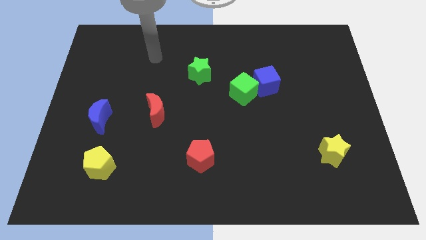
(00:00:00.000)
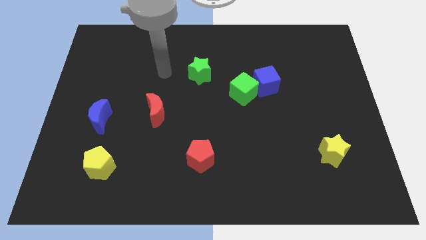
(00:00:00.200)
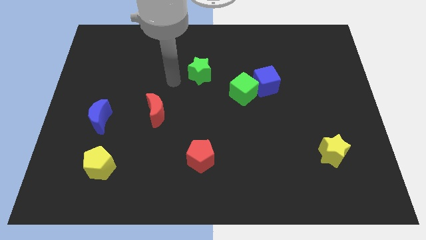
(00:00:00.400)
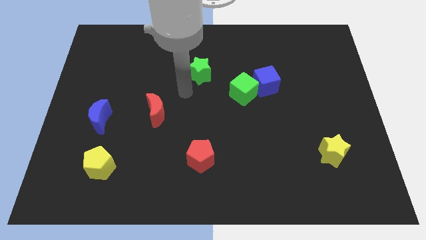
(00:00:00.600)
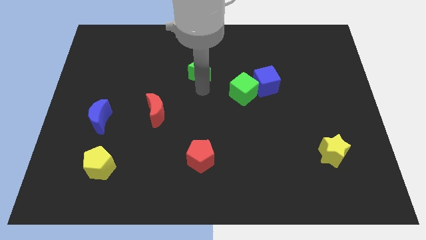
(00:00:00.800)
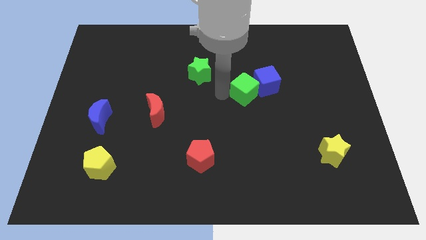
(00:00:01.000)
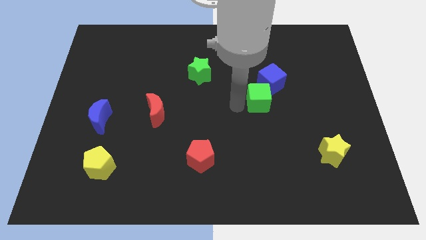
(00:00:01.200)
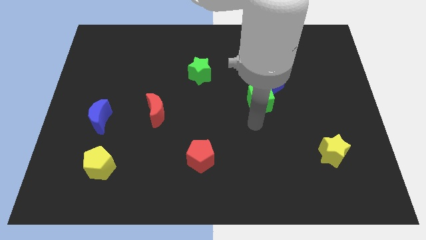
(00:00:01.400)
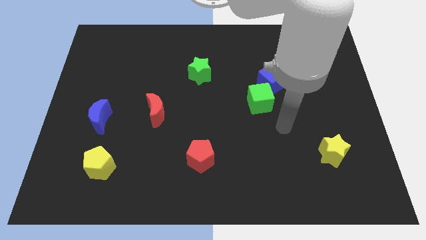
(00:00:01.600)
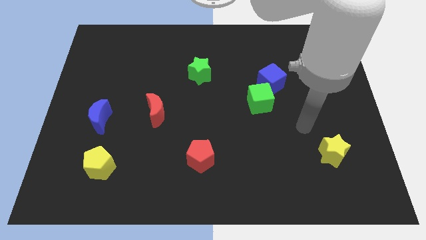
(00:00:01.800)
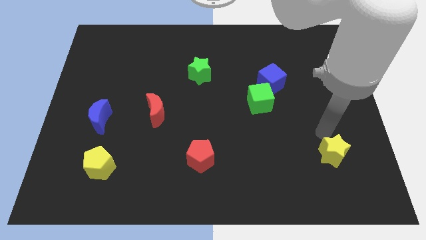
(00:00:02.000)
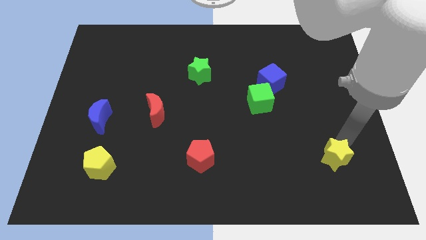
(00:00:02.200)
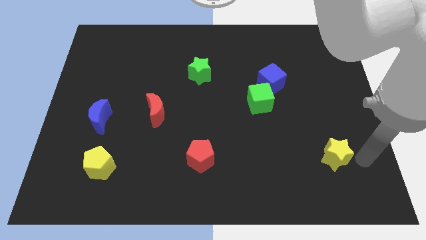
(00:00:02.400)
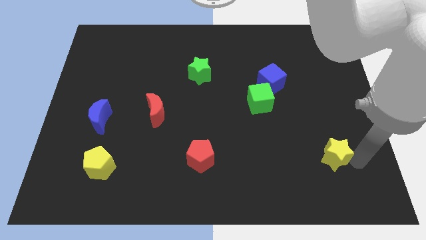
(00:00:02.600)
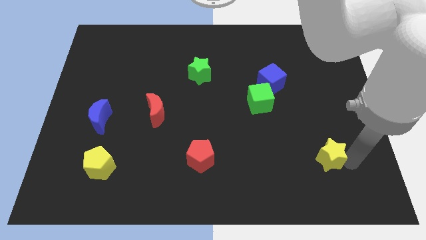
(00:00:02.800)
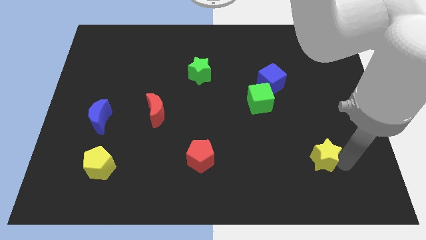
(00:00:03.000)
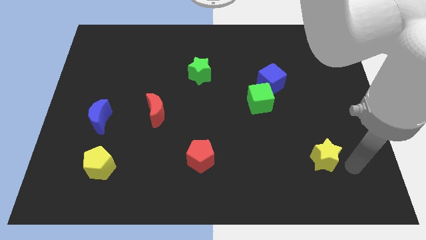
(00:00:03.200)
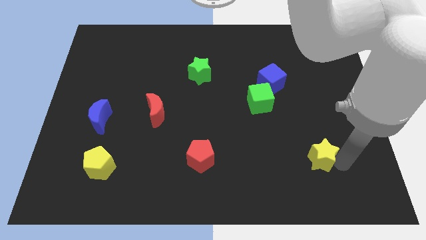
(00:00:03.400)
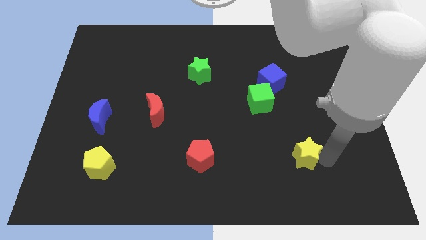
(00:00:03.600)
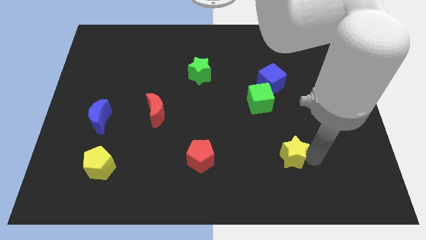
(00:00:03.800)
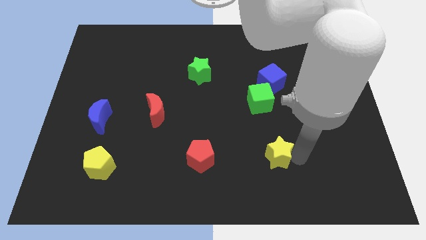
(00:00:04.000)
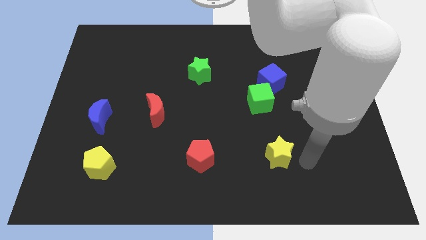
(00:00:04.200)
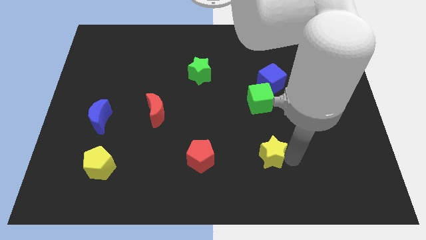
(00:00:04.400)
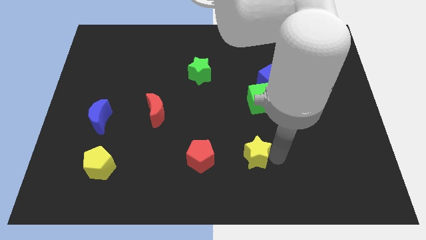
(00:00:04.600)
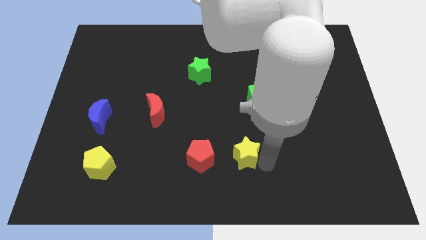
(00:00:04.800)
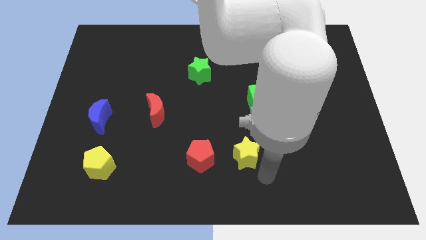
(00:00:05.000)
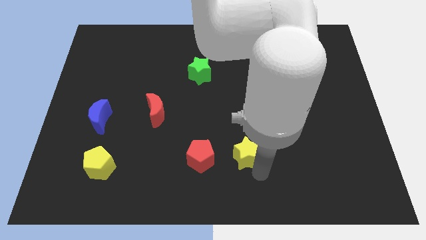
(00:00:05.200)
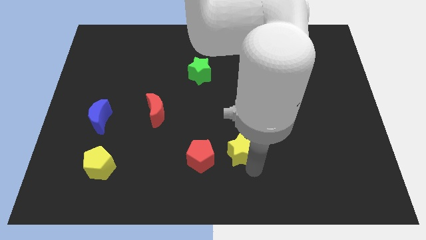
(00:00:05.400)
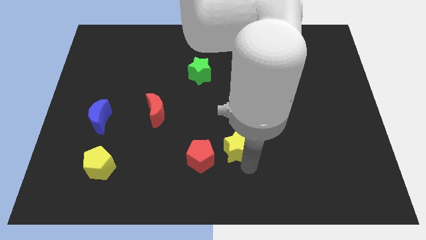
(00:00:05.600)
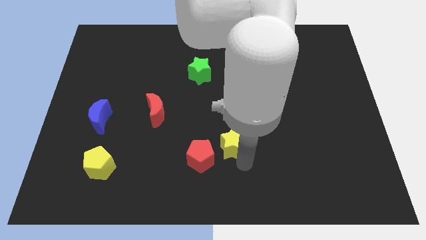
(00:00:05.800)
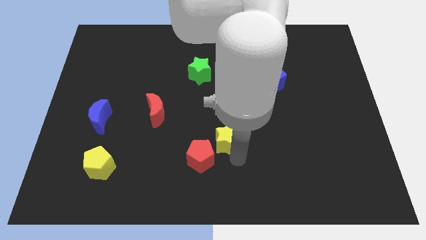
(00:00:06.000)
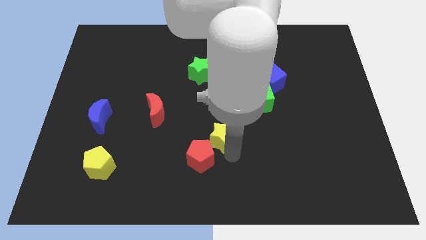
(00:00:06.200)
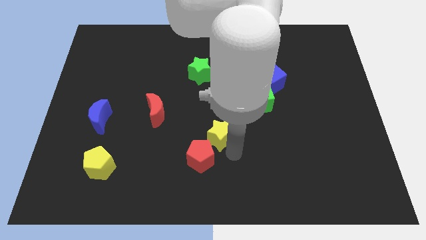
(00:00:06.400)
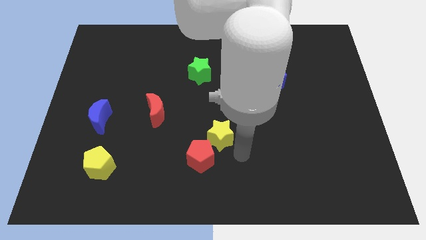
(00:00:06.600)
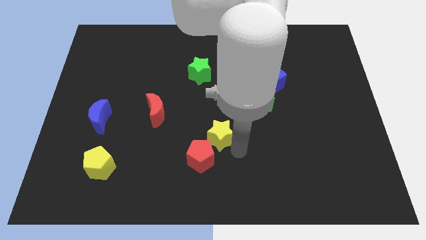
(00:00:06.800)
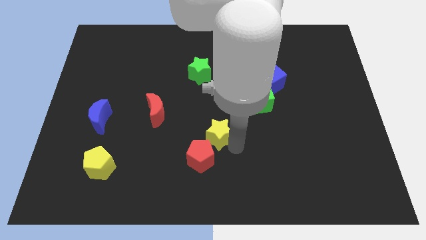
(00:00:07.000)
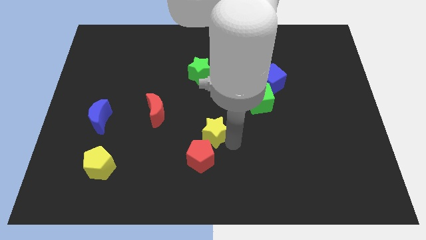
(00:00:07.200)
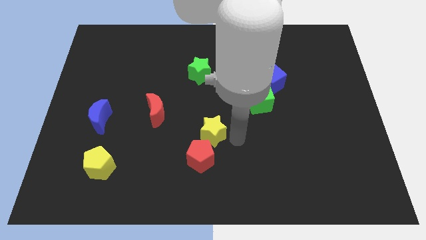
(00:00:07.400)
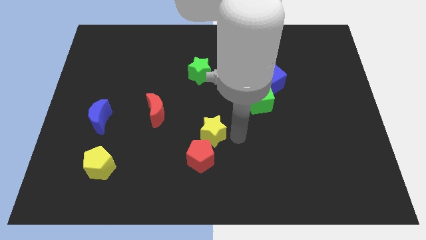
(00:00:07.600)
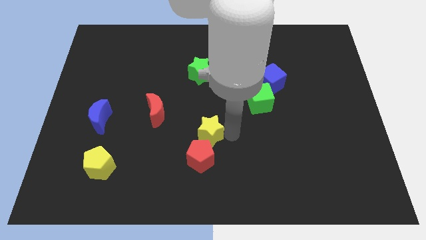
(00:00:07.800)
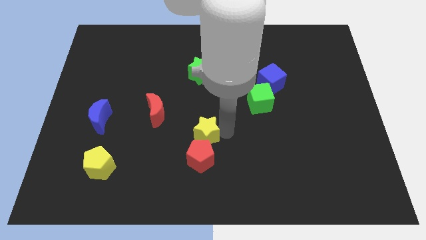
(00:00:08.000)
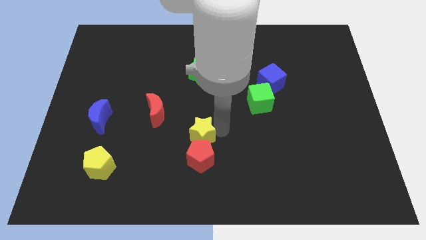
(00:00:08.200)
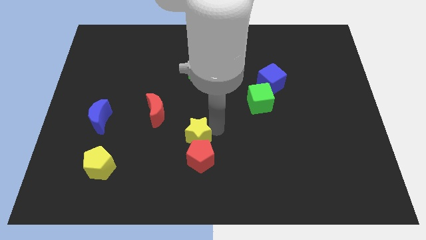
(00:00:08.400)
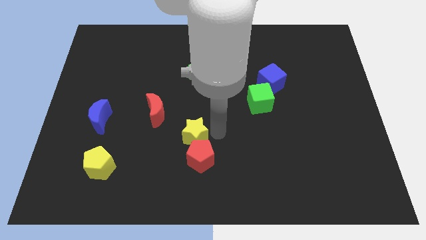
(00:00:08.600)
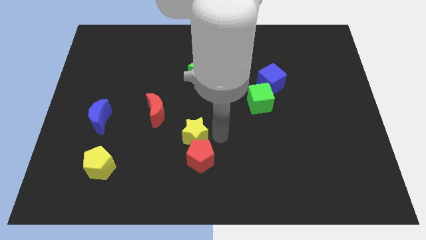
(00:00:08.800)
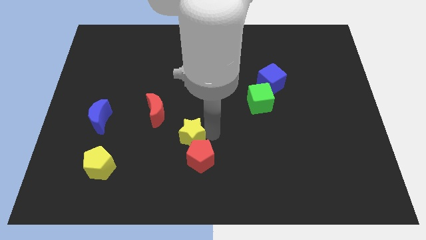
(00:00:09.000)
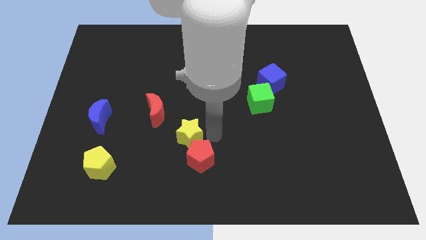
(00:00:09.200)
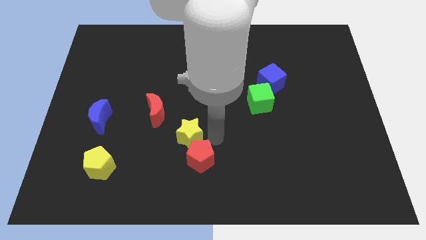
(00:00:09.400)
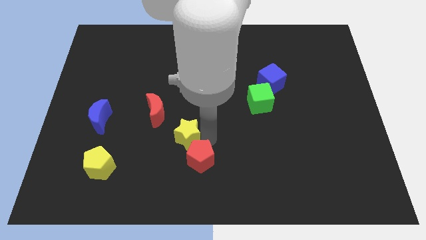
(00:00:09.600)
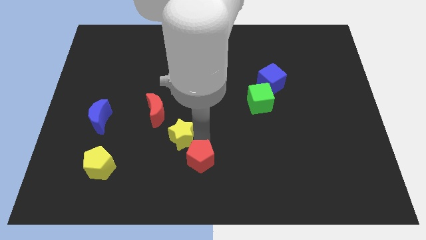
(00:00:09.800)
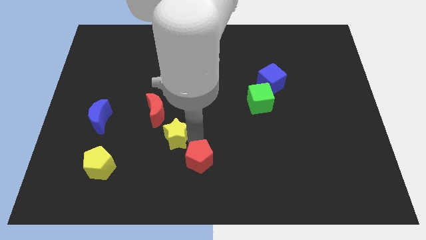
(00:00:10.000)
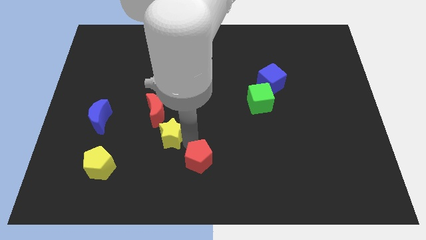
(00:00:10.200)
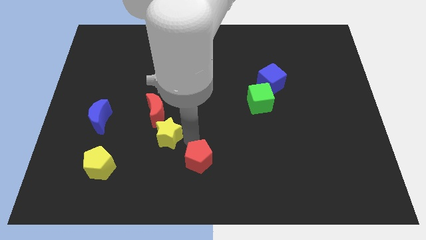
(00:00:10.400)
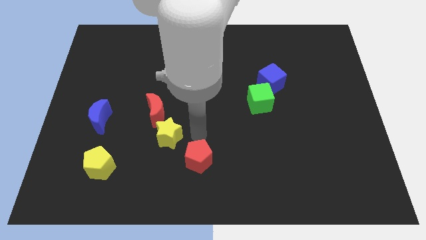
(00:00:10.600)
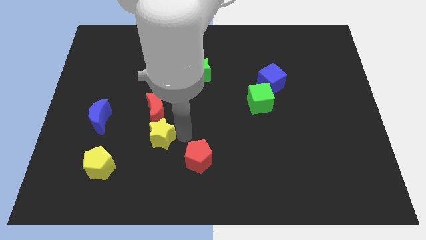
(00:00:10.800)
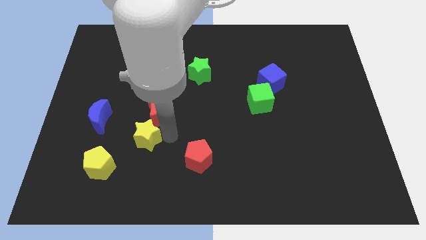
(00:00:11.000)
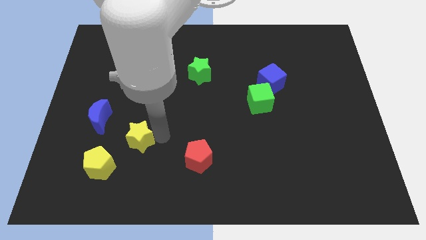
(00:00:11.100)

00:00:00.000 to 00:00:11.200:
put the yellow star diagonally down and to the right of the blue moon

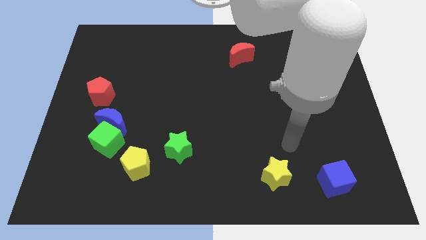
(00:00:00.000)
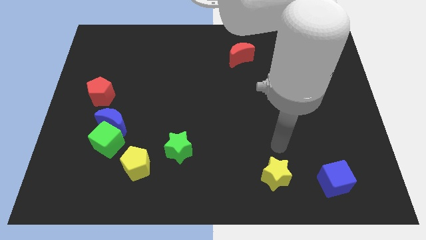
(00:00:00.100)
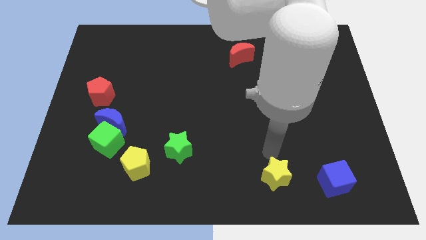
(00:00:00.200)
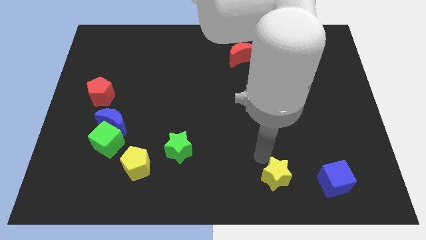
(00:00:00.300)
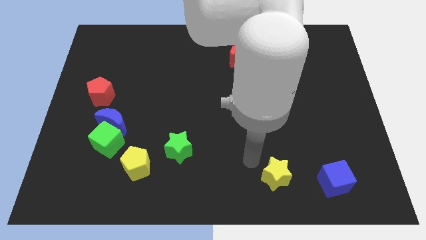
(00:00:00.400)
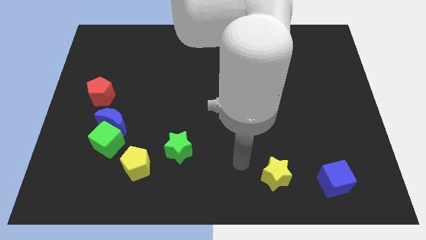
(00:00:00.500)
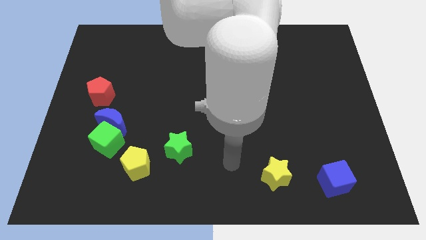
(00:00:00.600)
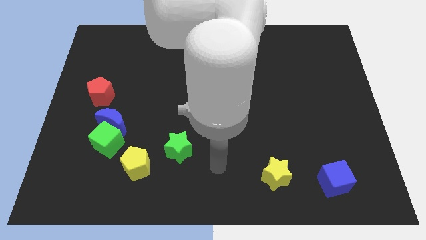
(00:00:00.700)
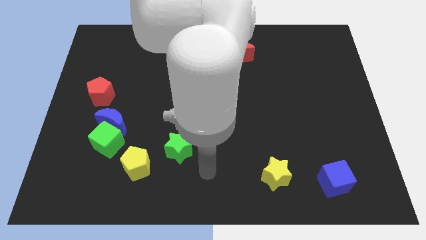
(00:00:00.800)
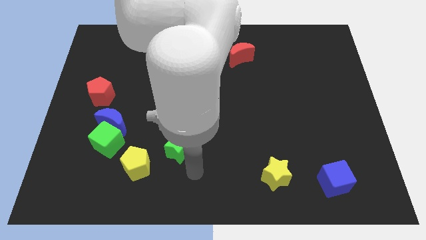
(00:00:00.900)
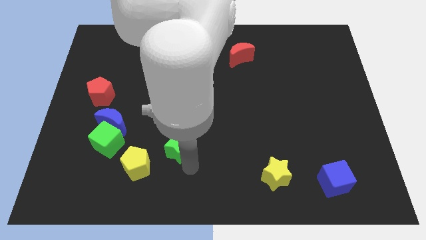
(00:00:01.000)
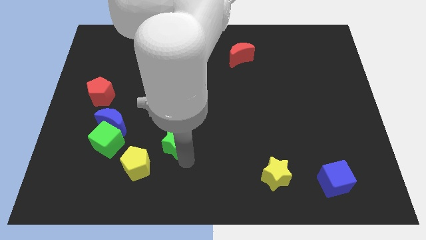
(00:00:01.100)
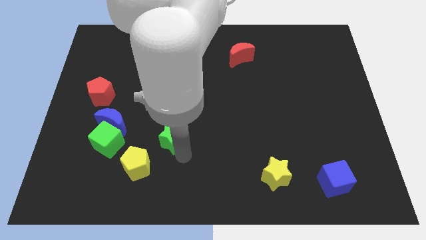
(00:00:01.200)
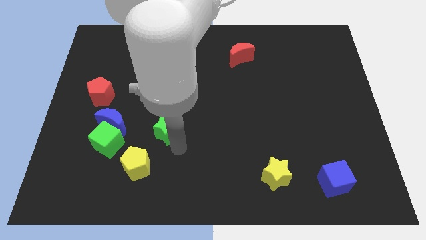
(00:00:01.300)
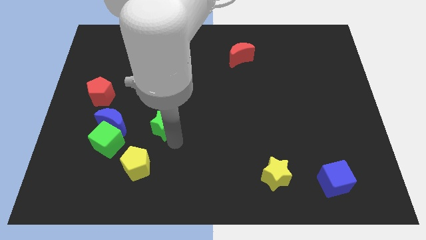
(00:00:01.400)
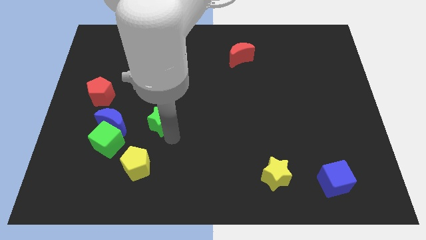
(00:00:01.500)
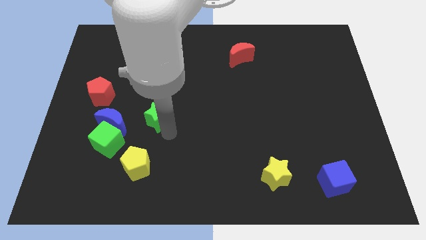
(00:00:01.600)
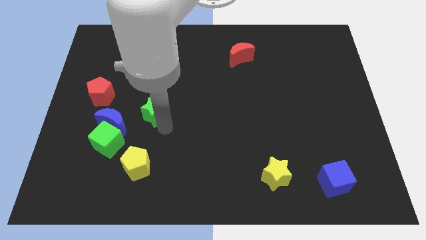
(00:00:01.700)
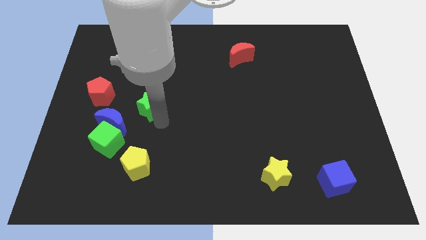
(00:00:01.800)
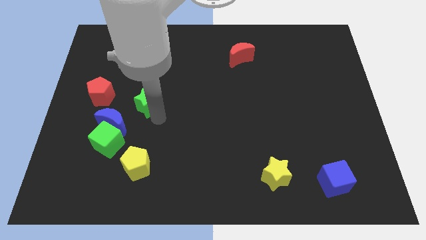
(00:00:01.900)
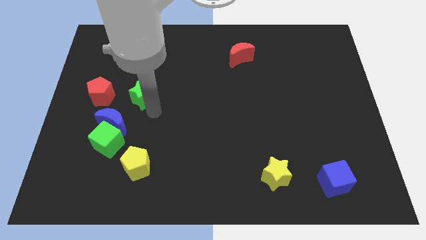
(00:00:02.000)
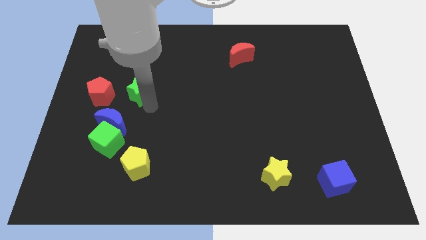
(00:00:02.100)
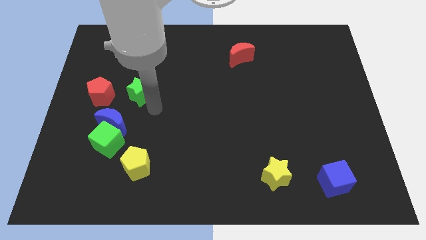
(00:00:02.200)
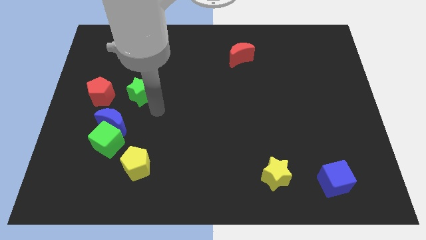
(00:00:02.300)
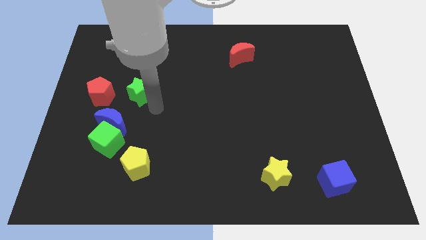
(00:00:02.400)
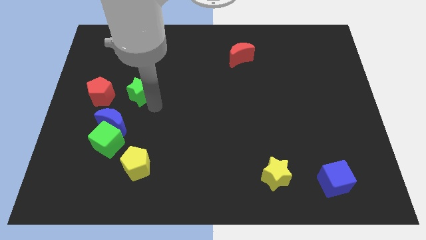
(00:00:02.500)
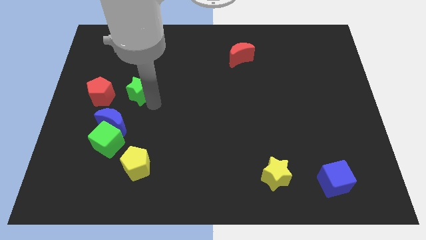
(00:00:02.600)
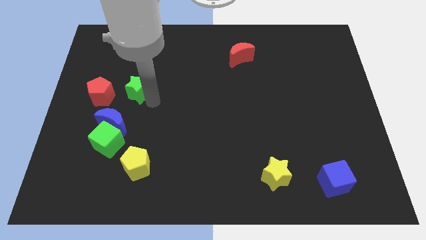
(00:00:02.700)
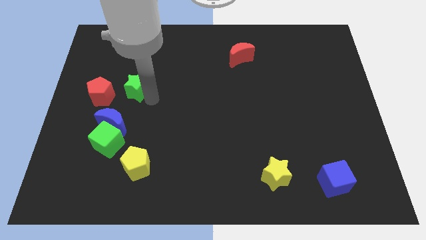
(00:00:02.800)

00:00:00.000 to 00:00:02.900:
put the green star to the top right of the red pentagon
